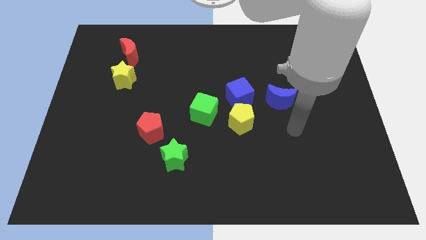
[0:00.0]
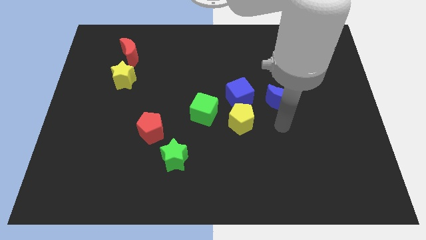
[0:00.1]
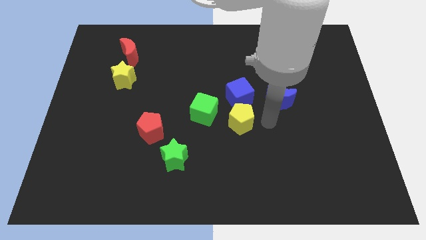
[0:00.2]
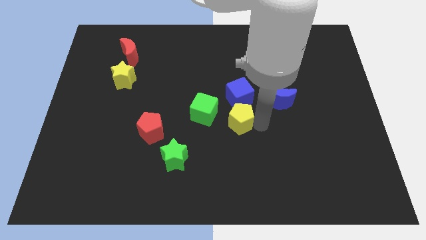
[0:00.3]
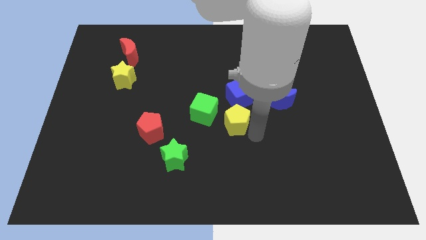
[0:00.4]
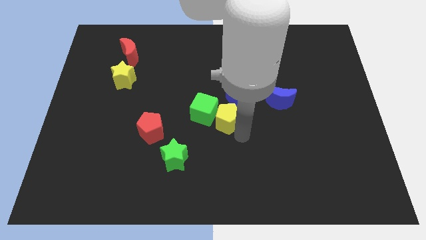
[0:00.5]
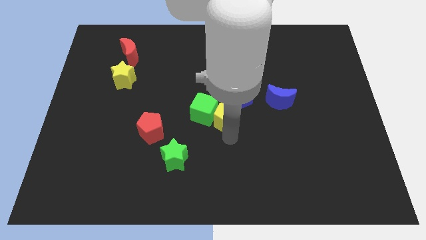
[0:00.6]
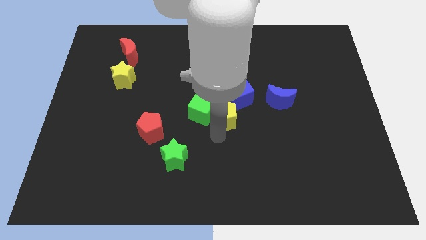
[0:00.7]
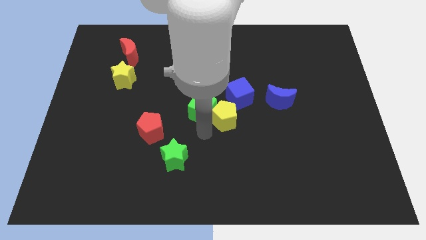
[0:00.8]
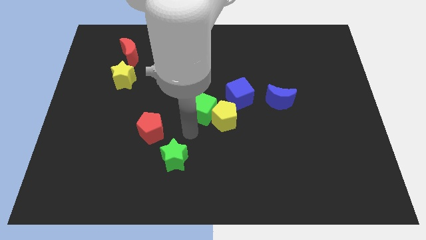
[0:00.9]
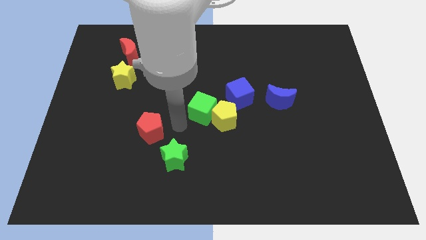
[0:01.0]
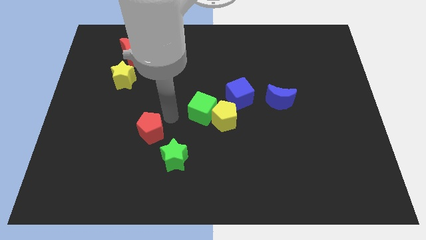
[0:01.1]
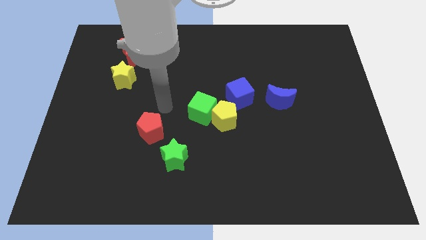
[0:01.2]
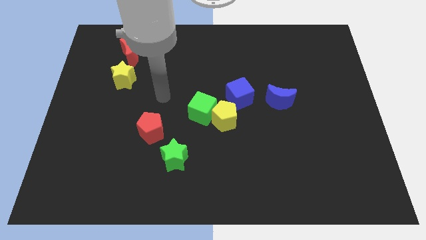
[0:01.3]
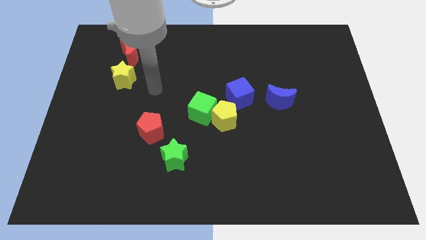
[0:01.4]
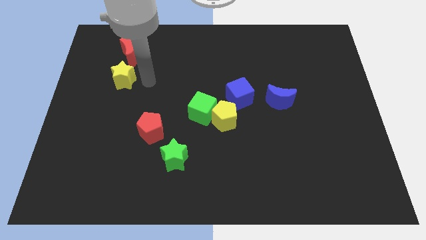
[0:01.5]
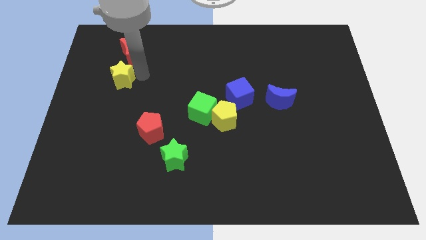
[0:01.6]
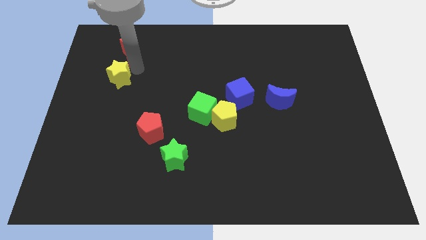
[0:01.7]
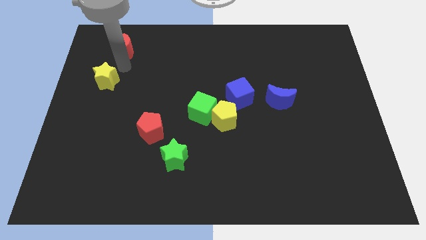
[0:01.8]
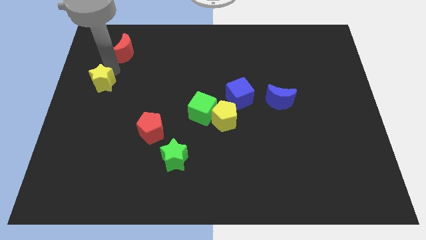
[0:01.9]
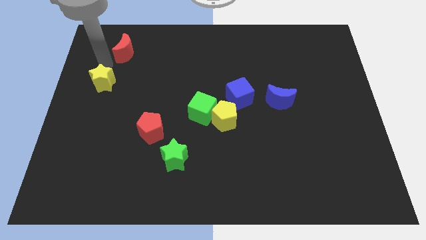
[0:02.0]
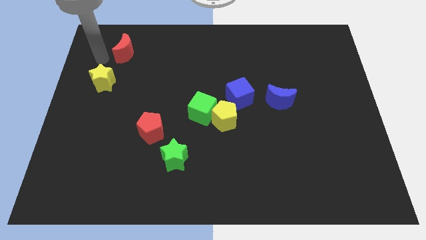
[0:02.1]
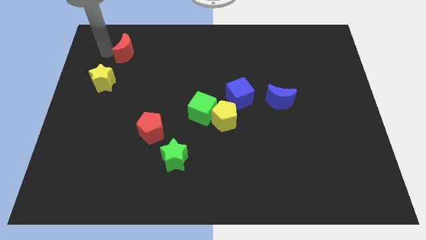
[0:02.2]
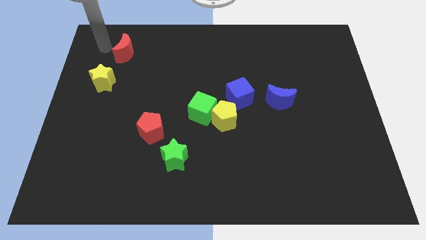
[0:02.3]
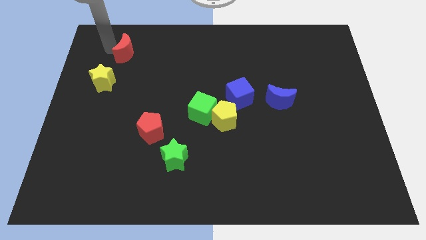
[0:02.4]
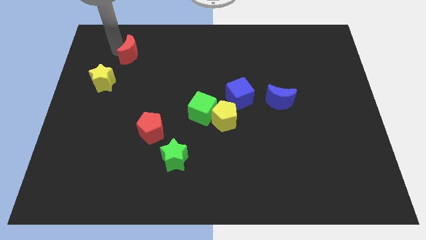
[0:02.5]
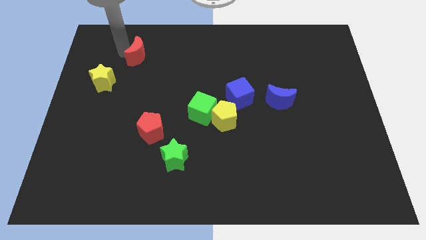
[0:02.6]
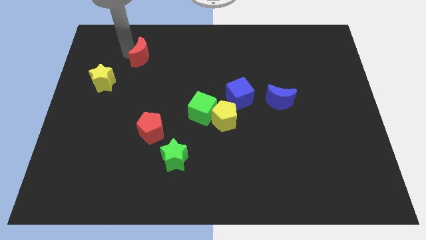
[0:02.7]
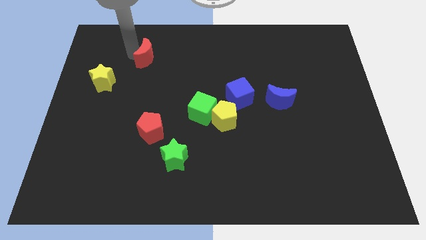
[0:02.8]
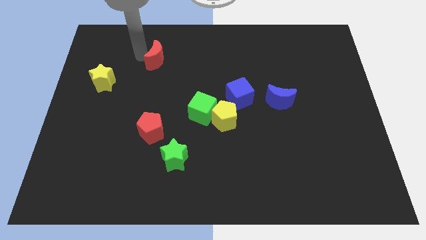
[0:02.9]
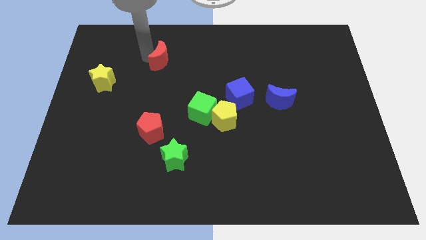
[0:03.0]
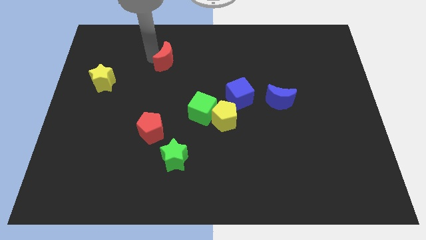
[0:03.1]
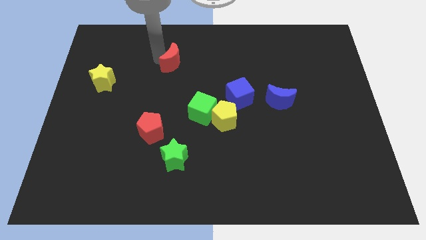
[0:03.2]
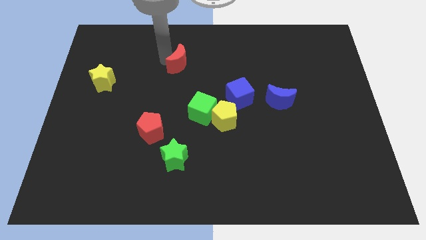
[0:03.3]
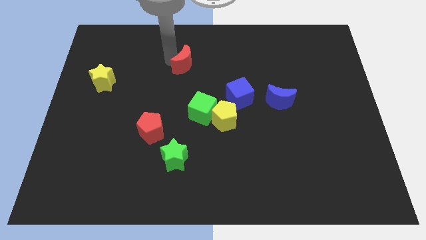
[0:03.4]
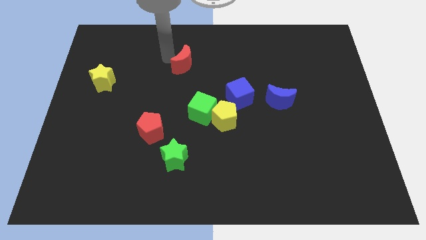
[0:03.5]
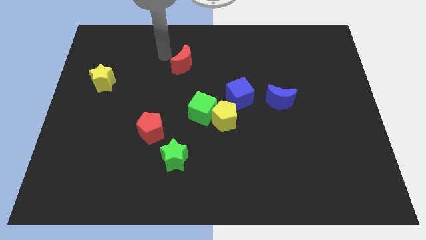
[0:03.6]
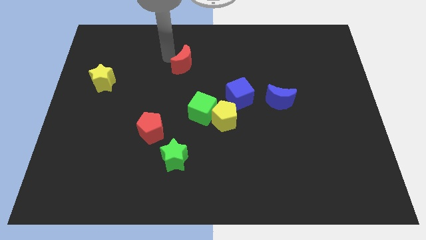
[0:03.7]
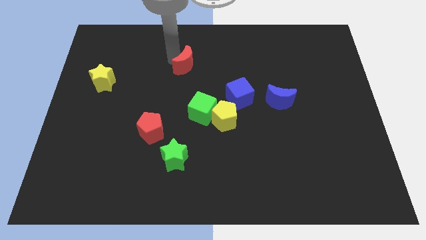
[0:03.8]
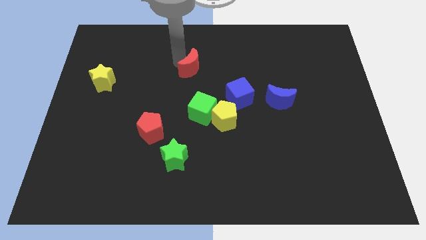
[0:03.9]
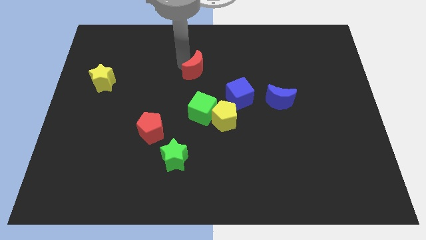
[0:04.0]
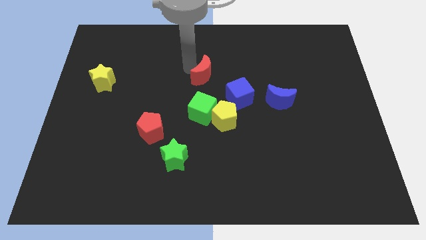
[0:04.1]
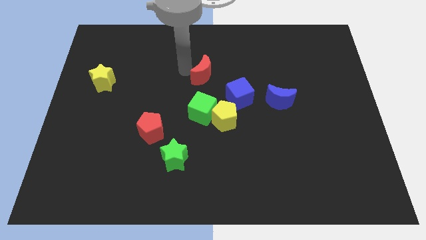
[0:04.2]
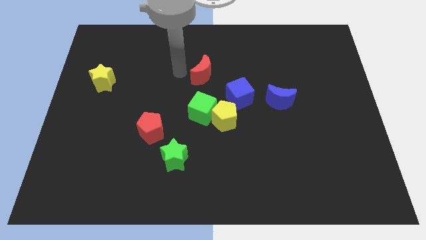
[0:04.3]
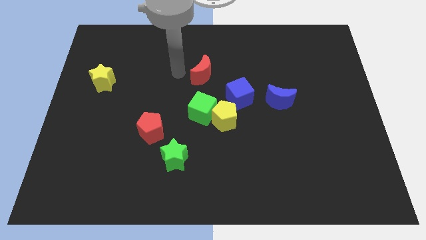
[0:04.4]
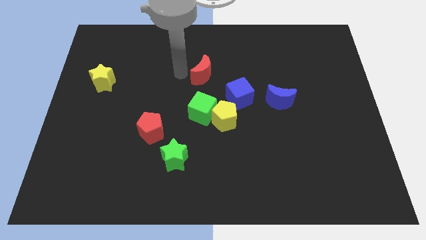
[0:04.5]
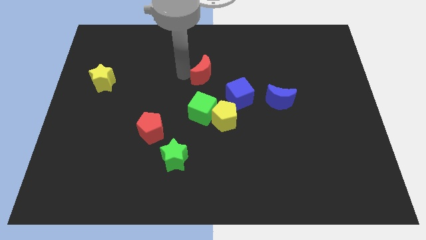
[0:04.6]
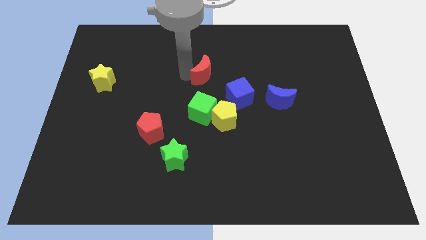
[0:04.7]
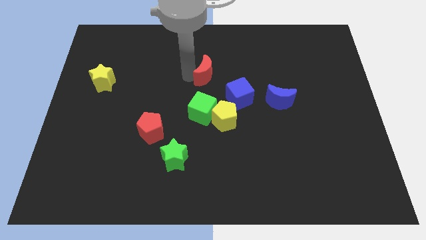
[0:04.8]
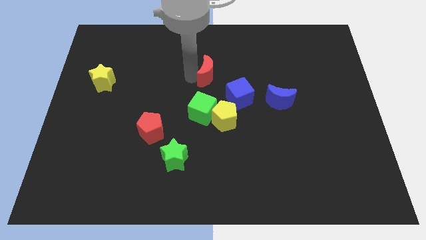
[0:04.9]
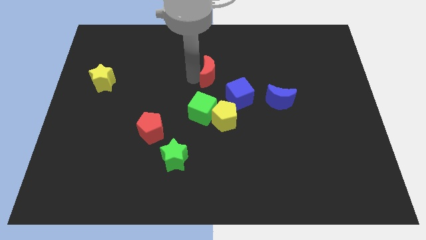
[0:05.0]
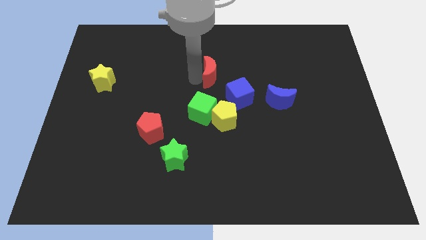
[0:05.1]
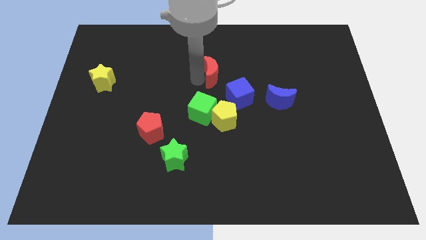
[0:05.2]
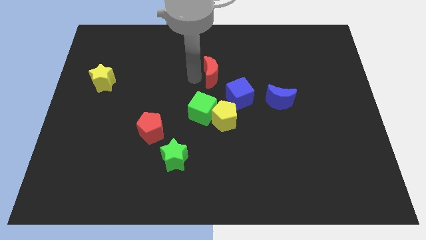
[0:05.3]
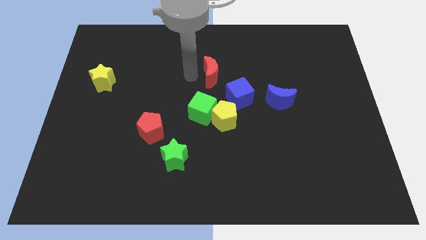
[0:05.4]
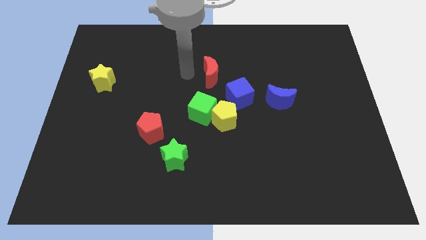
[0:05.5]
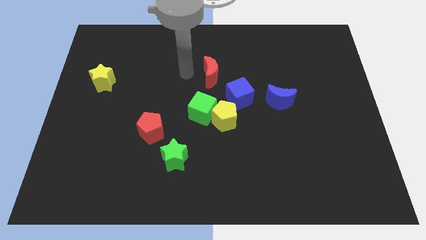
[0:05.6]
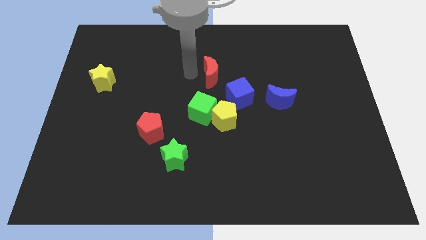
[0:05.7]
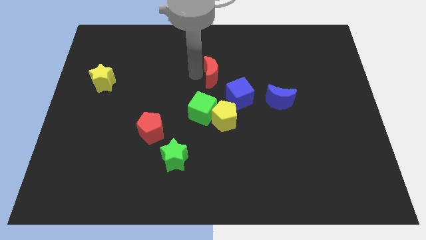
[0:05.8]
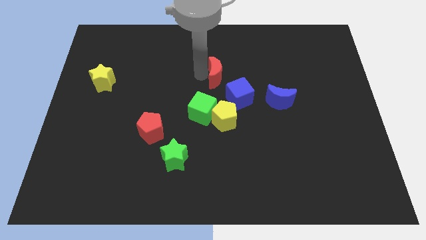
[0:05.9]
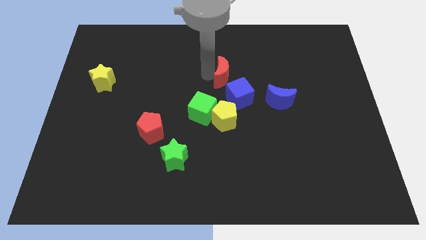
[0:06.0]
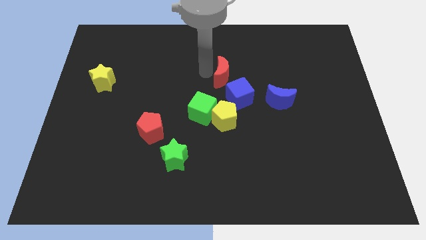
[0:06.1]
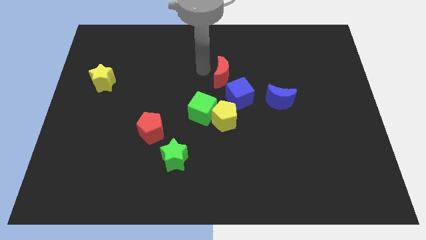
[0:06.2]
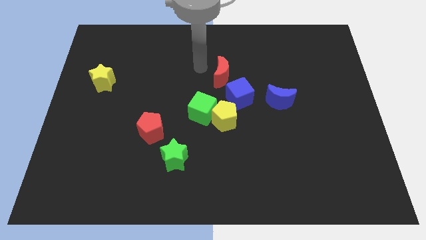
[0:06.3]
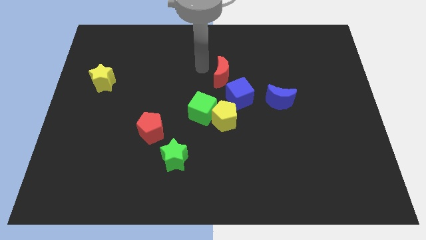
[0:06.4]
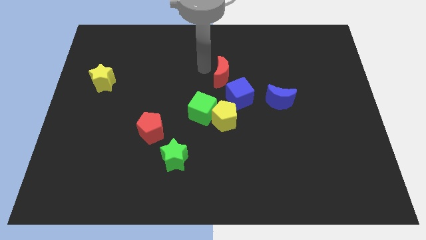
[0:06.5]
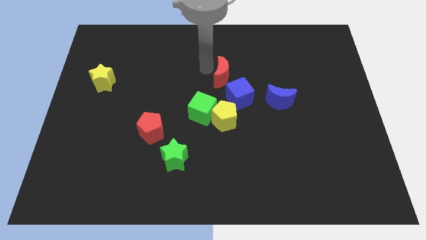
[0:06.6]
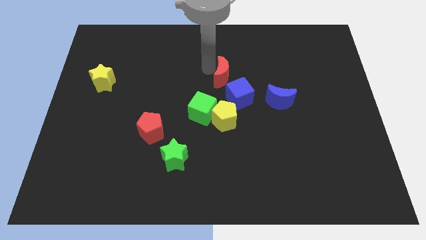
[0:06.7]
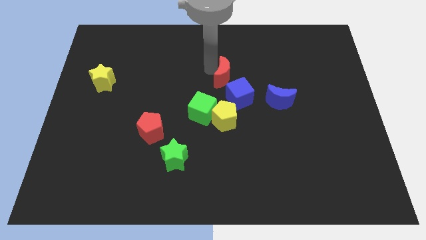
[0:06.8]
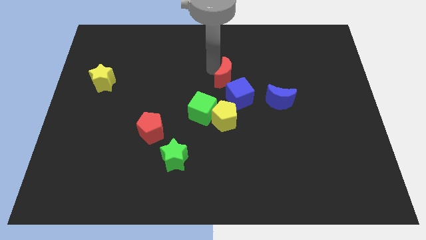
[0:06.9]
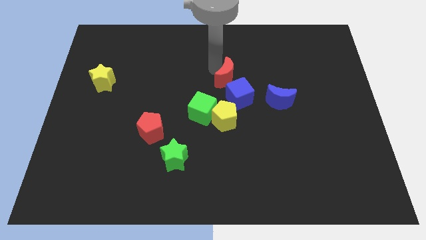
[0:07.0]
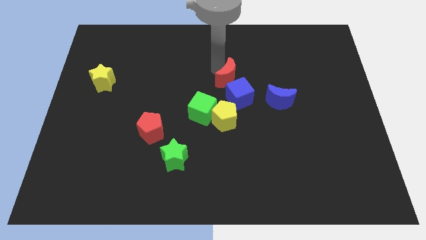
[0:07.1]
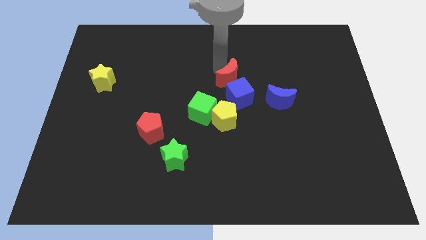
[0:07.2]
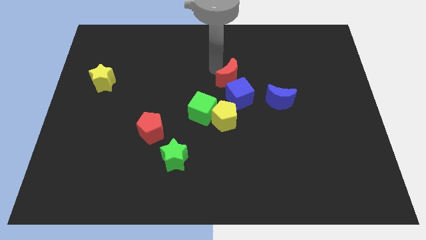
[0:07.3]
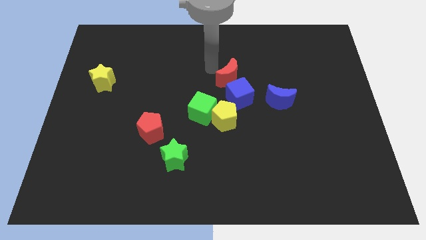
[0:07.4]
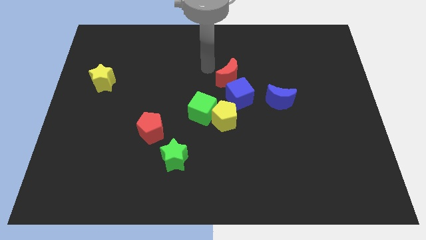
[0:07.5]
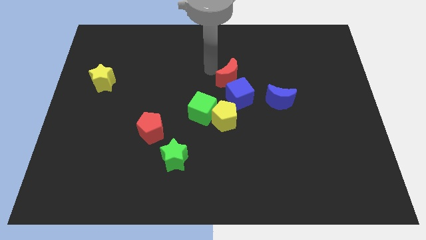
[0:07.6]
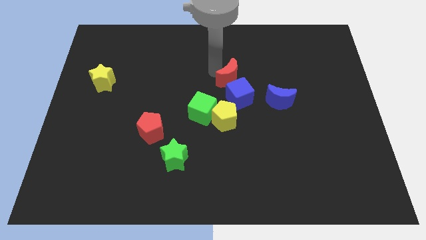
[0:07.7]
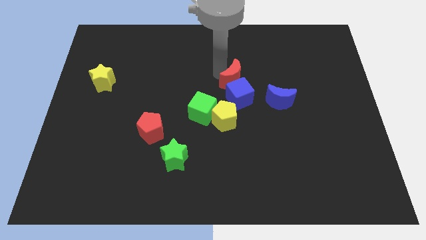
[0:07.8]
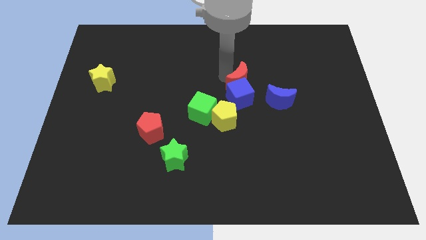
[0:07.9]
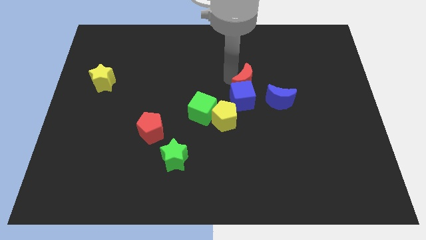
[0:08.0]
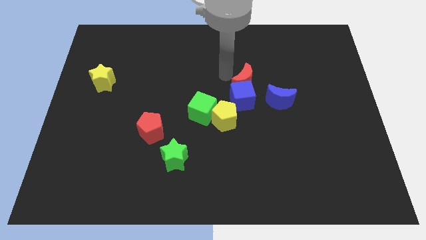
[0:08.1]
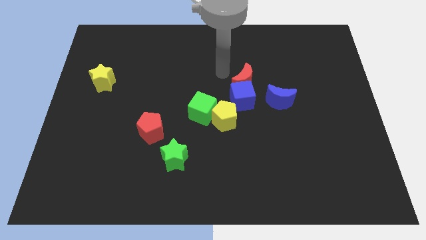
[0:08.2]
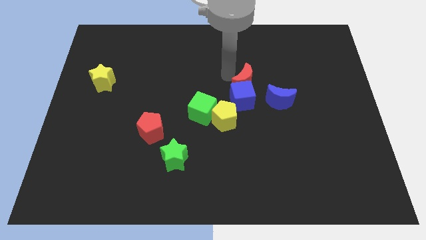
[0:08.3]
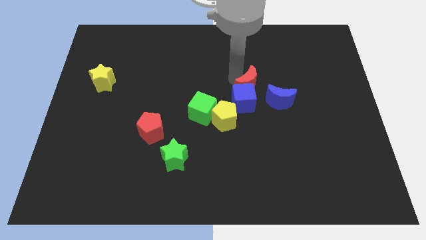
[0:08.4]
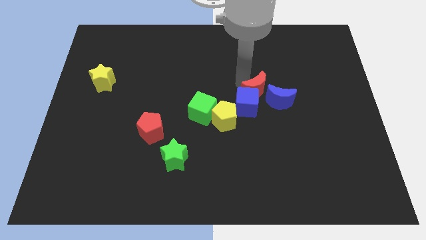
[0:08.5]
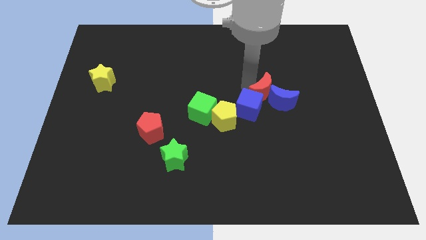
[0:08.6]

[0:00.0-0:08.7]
put the red moon next to the blue moon
